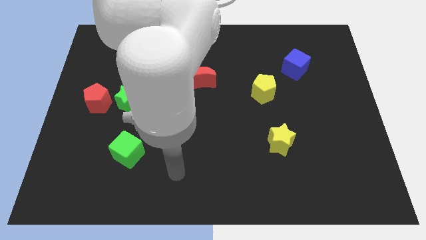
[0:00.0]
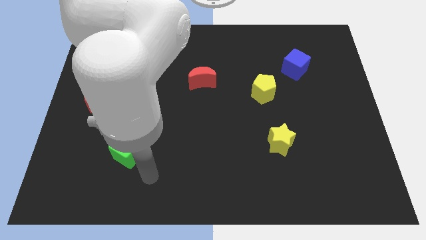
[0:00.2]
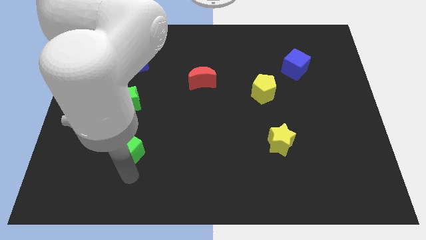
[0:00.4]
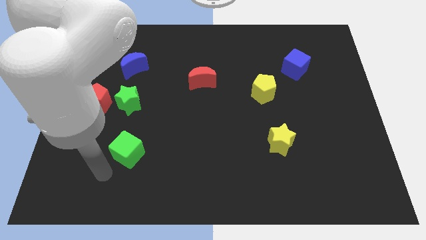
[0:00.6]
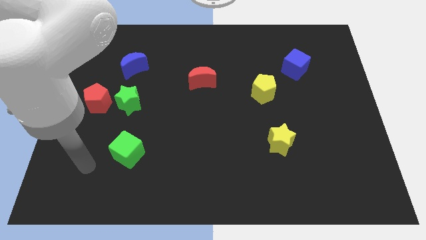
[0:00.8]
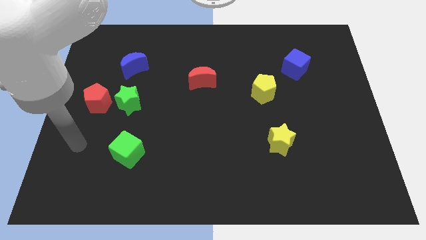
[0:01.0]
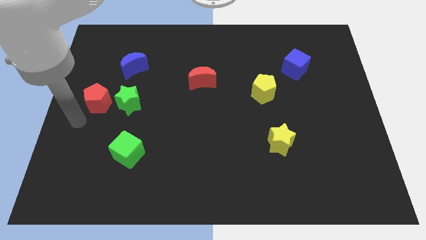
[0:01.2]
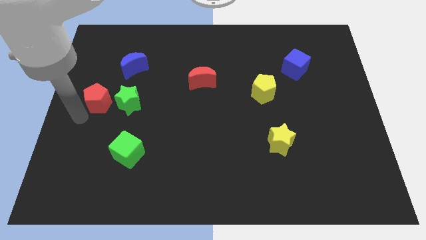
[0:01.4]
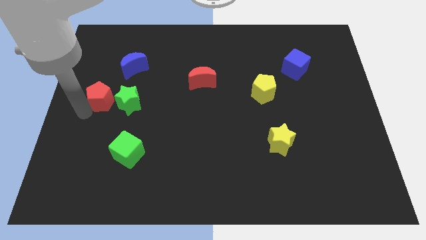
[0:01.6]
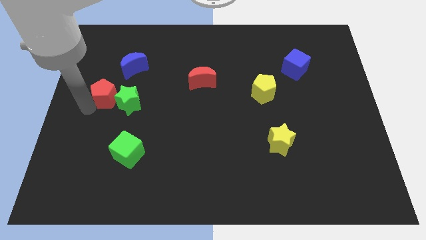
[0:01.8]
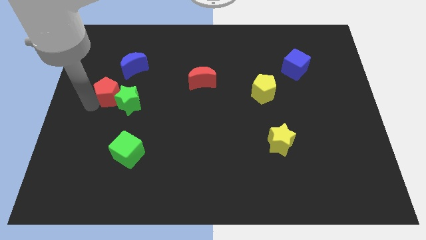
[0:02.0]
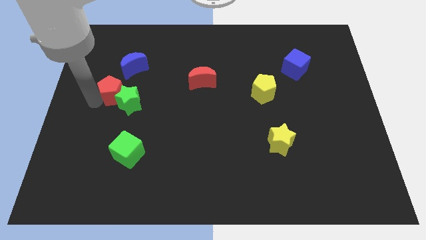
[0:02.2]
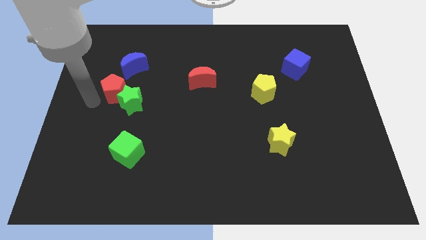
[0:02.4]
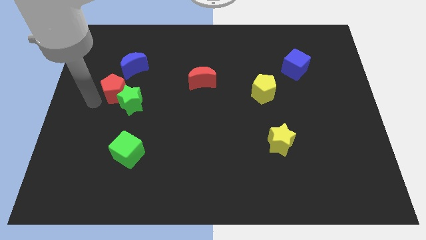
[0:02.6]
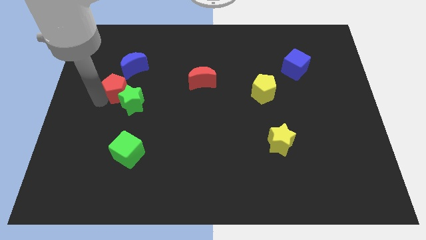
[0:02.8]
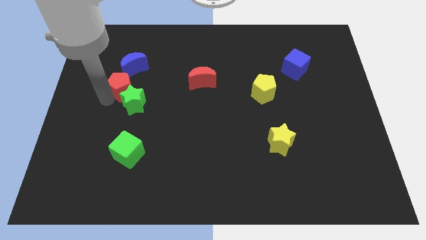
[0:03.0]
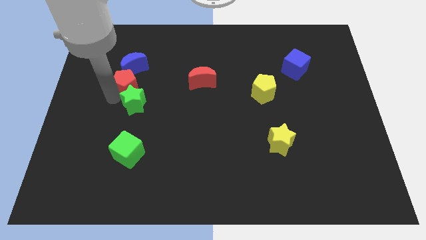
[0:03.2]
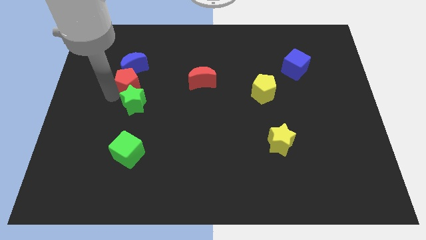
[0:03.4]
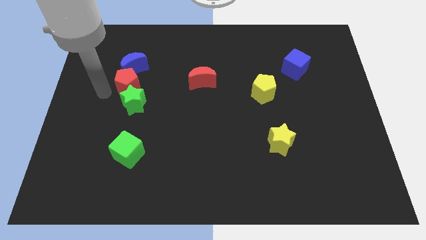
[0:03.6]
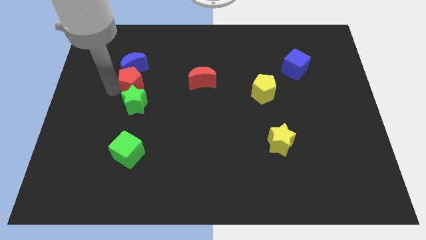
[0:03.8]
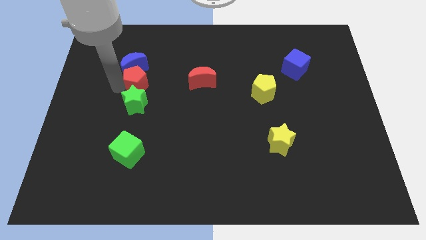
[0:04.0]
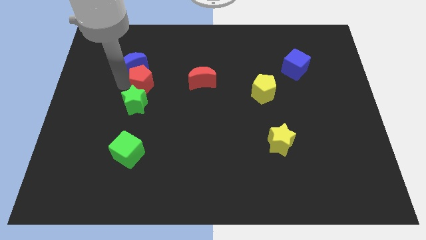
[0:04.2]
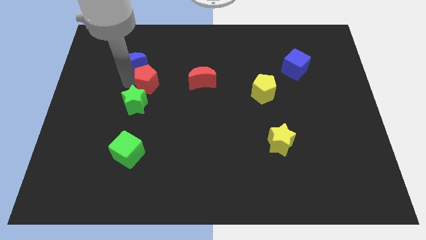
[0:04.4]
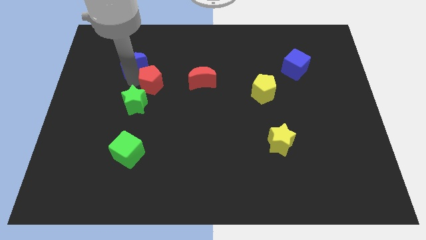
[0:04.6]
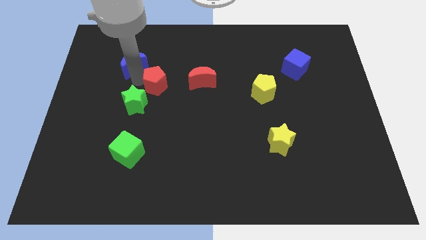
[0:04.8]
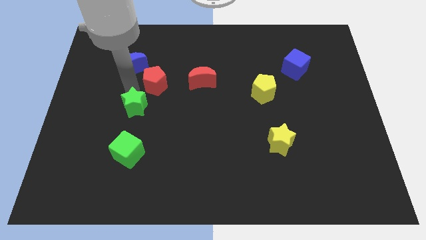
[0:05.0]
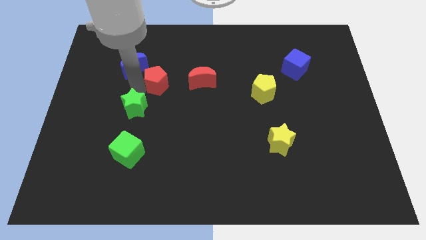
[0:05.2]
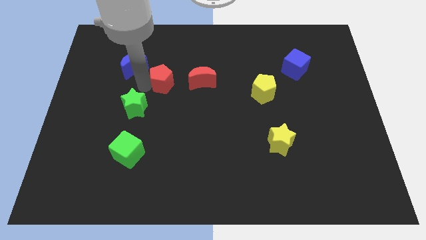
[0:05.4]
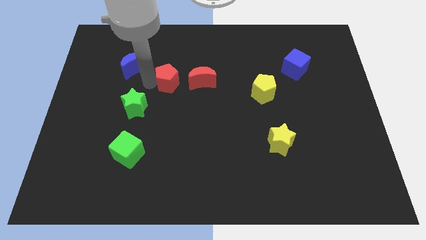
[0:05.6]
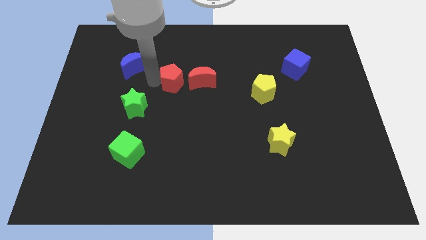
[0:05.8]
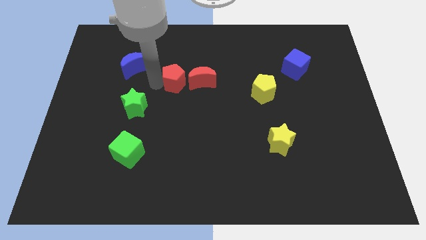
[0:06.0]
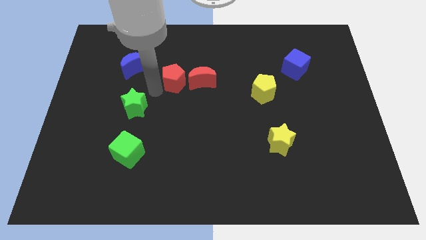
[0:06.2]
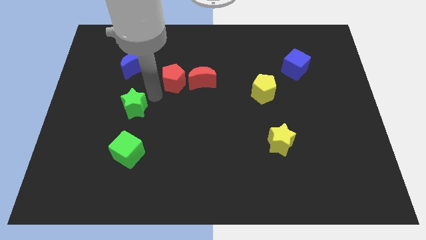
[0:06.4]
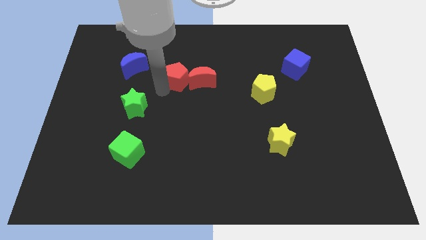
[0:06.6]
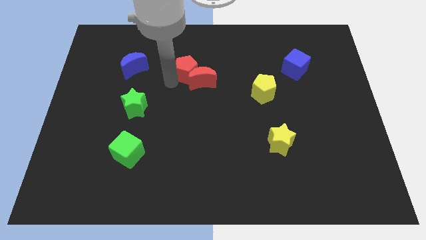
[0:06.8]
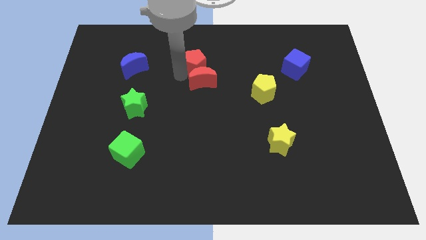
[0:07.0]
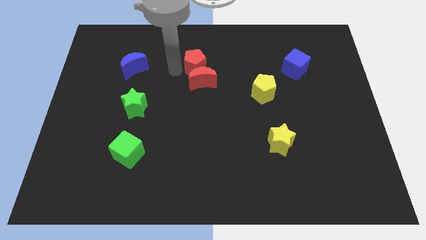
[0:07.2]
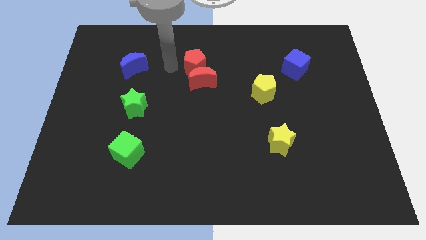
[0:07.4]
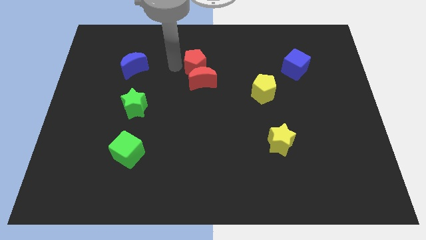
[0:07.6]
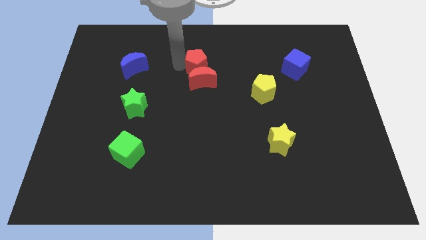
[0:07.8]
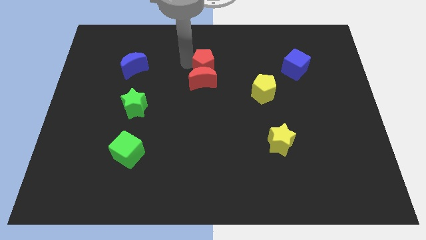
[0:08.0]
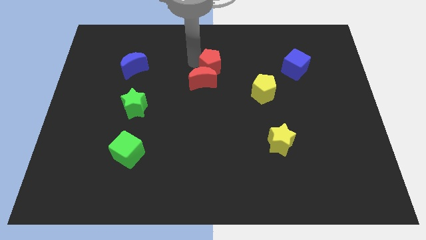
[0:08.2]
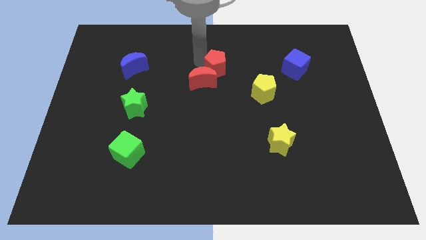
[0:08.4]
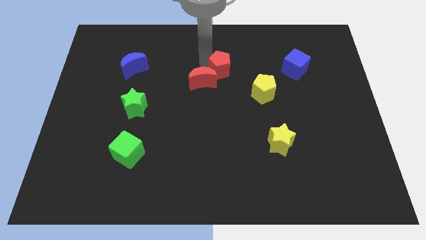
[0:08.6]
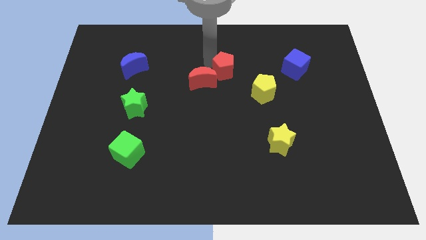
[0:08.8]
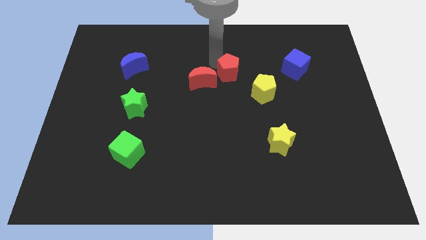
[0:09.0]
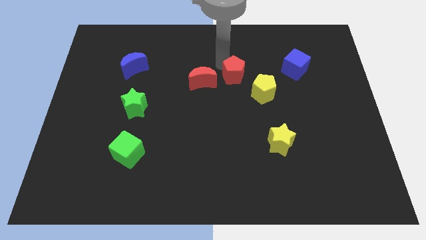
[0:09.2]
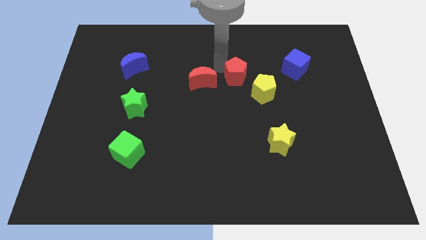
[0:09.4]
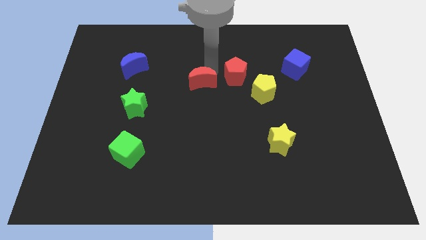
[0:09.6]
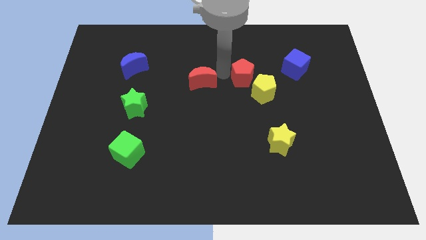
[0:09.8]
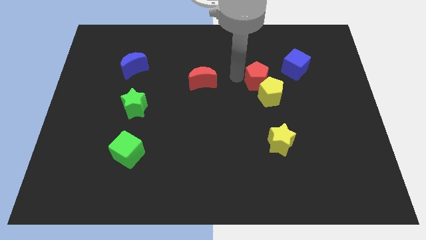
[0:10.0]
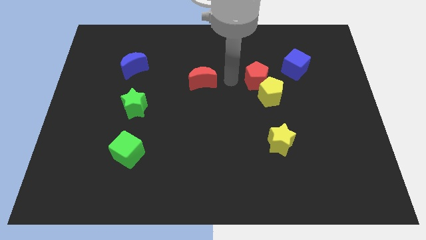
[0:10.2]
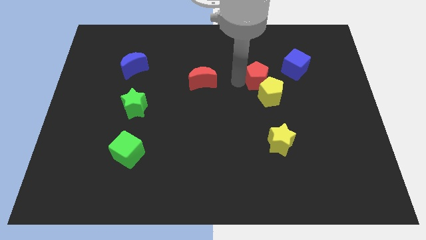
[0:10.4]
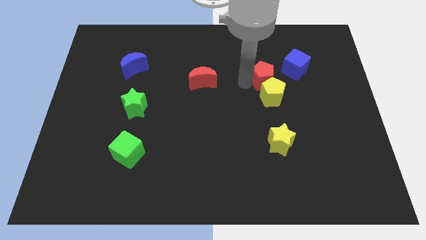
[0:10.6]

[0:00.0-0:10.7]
move the red pentagon diagonally up and to the right of the yellow pentagon

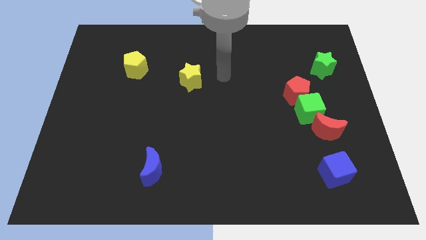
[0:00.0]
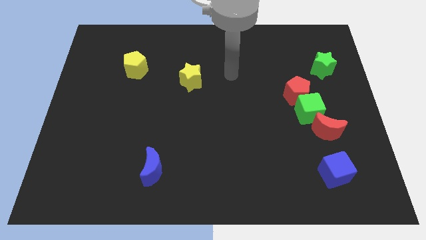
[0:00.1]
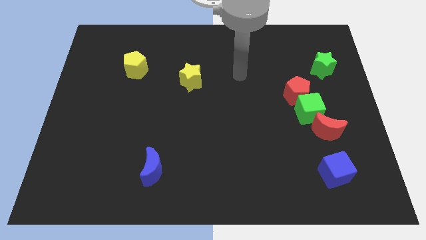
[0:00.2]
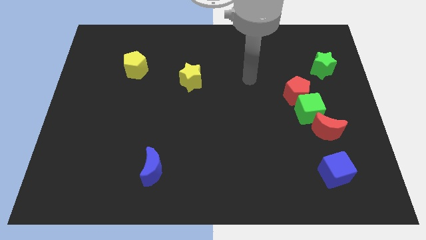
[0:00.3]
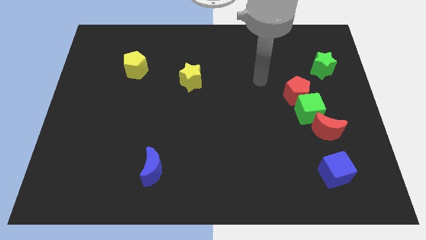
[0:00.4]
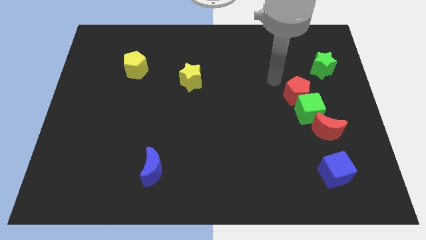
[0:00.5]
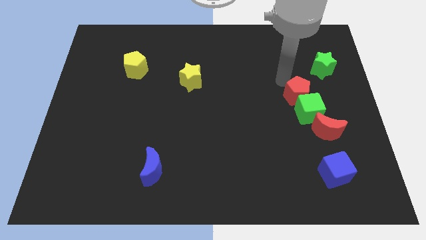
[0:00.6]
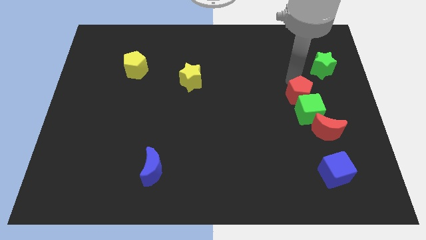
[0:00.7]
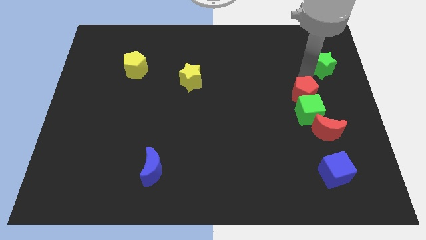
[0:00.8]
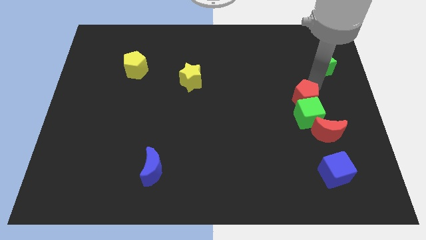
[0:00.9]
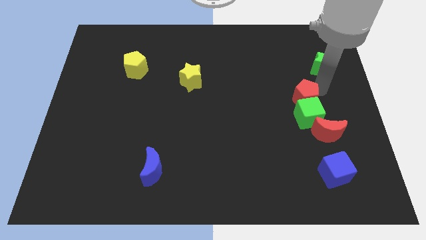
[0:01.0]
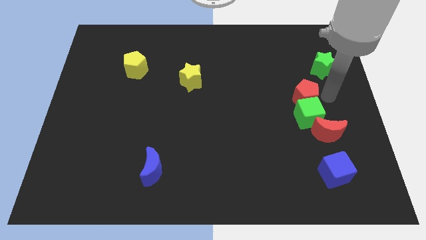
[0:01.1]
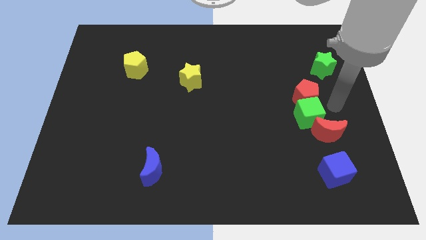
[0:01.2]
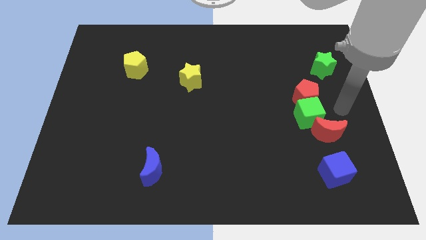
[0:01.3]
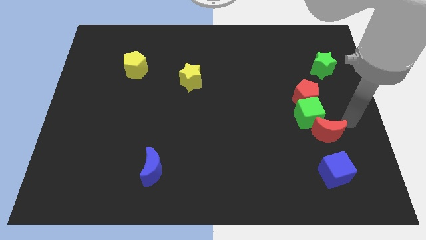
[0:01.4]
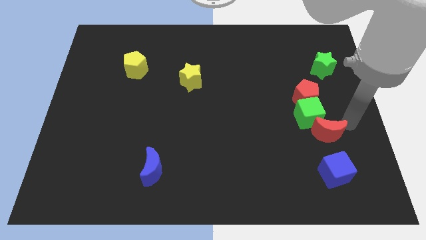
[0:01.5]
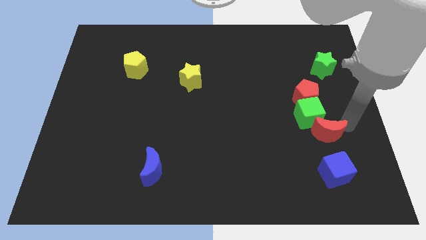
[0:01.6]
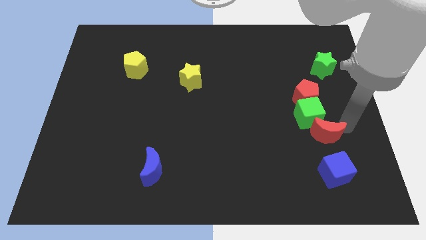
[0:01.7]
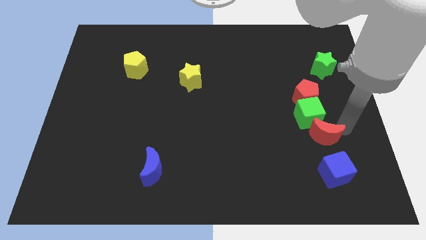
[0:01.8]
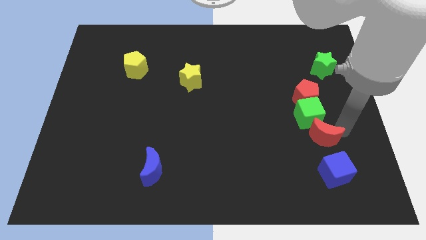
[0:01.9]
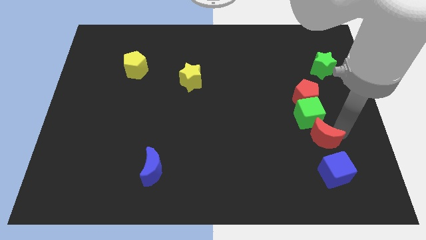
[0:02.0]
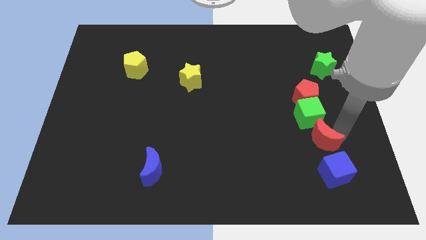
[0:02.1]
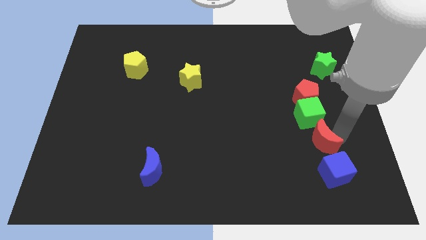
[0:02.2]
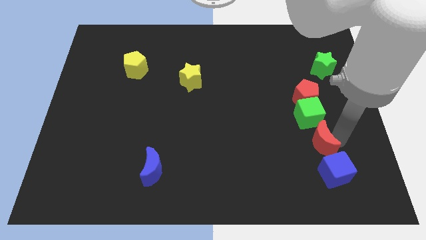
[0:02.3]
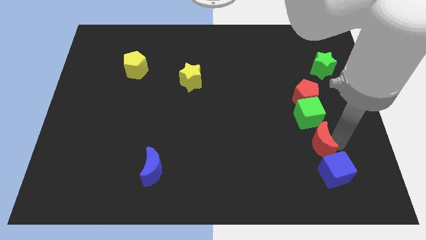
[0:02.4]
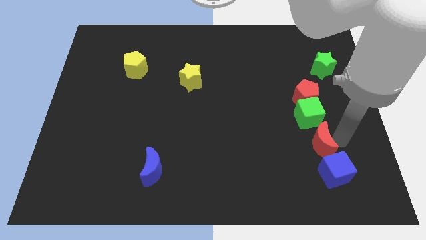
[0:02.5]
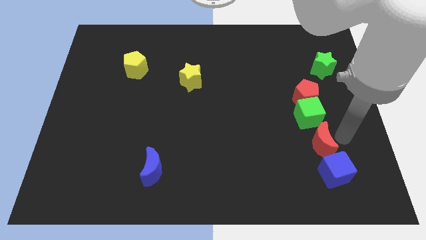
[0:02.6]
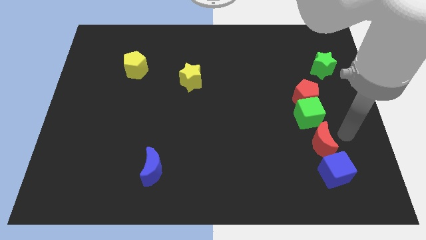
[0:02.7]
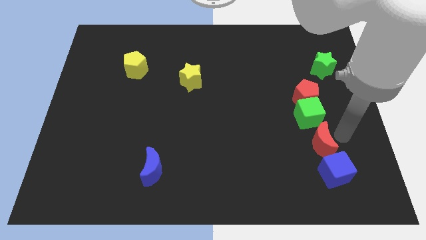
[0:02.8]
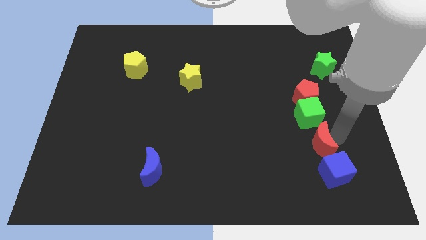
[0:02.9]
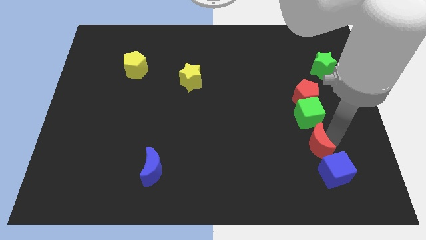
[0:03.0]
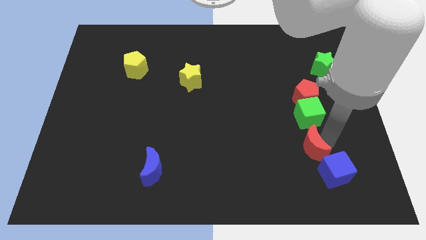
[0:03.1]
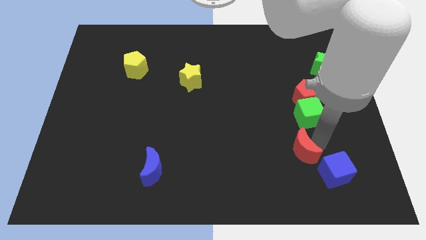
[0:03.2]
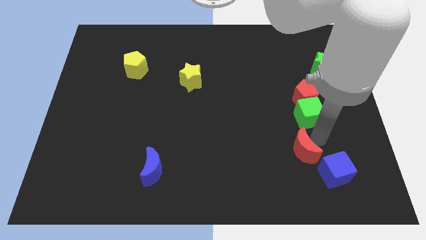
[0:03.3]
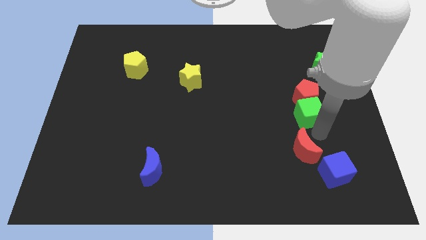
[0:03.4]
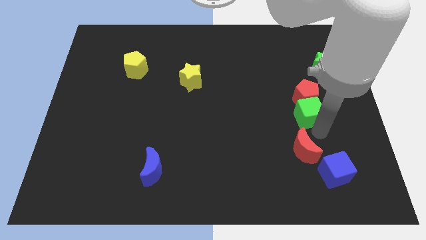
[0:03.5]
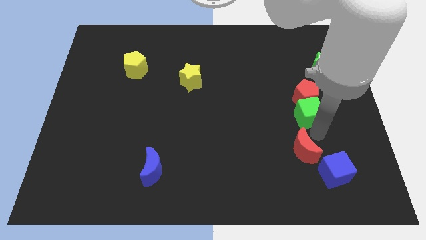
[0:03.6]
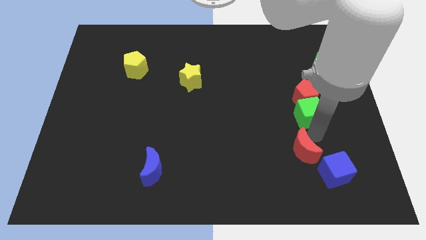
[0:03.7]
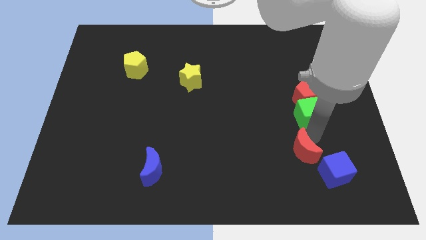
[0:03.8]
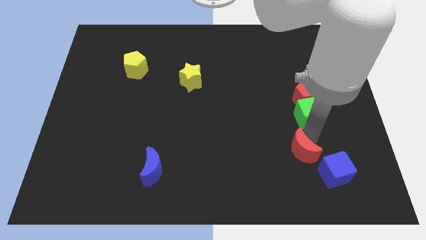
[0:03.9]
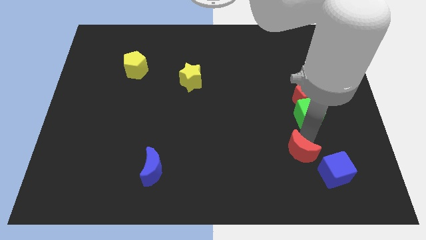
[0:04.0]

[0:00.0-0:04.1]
slide the red moon to the left side of the blue cube
